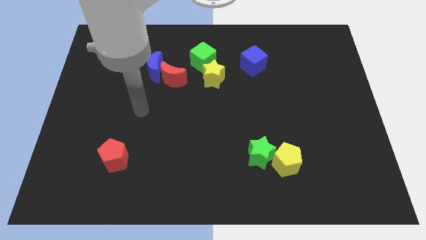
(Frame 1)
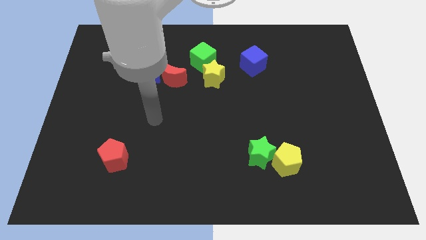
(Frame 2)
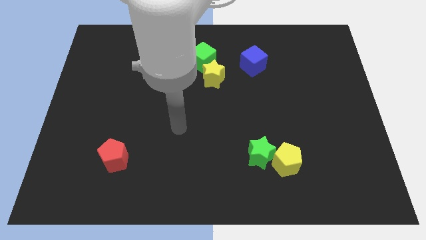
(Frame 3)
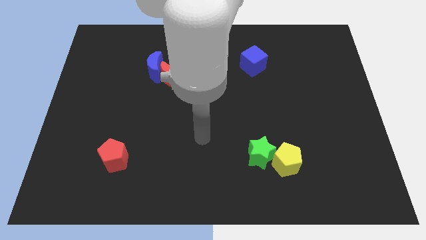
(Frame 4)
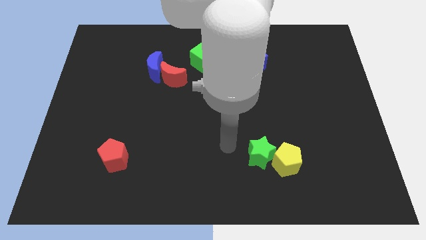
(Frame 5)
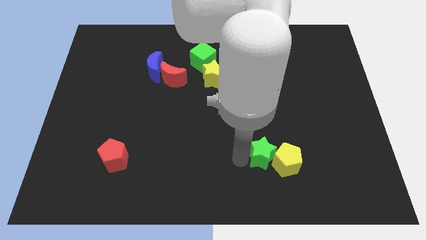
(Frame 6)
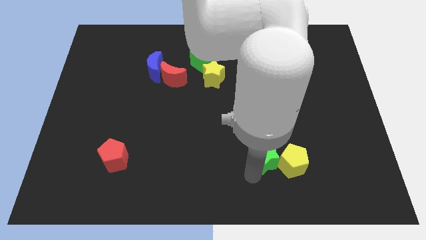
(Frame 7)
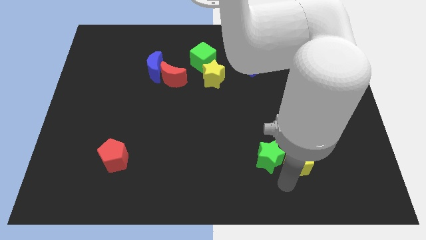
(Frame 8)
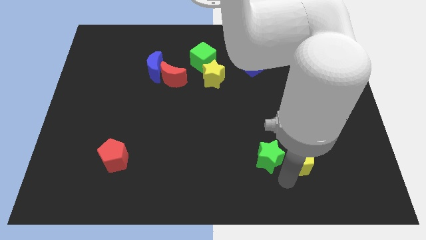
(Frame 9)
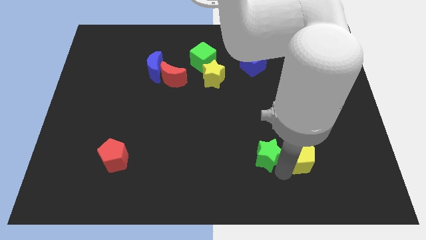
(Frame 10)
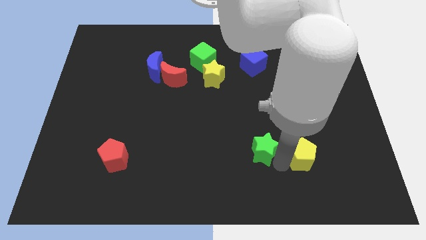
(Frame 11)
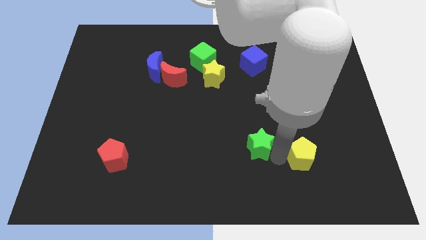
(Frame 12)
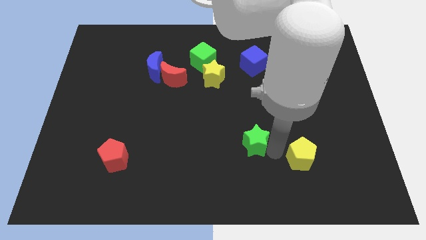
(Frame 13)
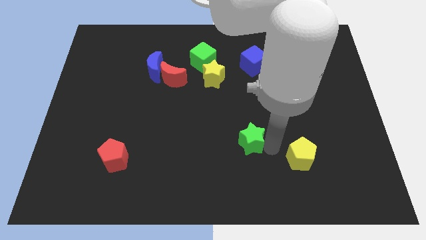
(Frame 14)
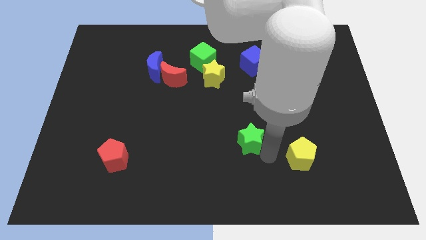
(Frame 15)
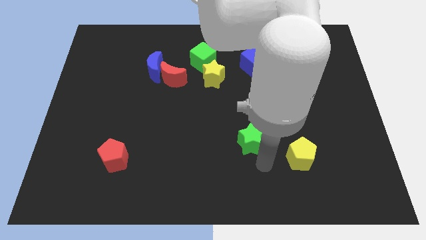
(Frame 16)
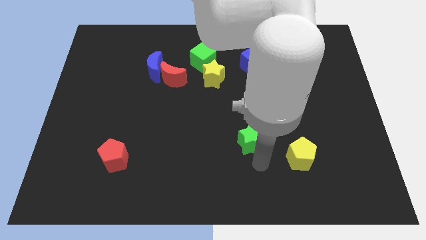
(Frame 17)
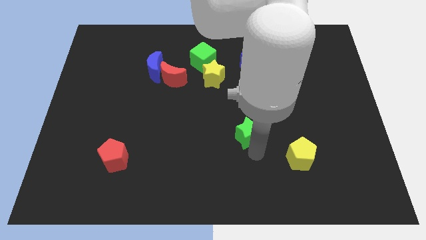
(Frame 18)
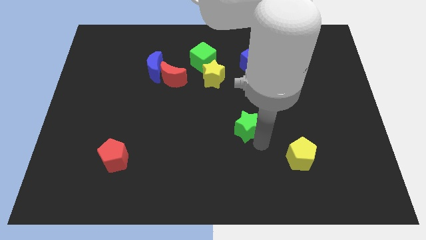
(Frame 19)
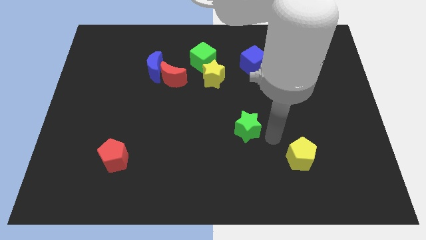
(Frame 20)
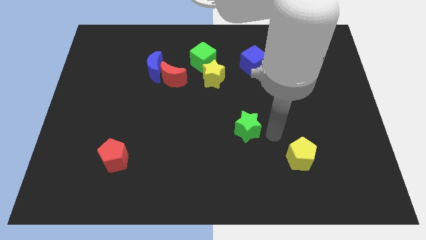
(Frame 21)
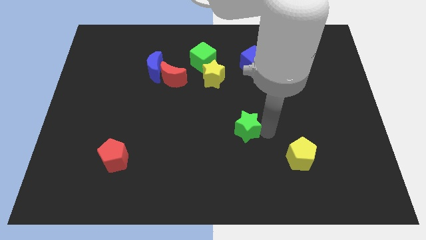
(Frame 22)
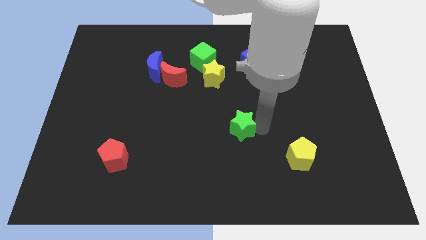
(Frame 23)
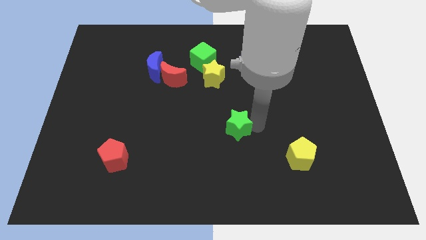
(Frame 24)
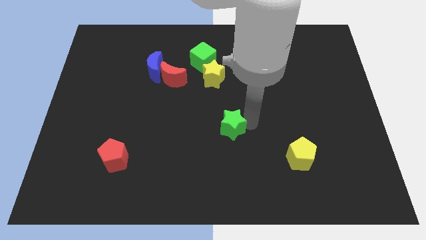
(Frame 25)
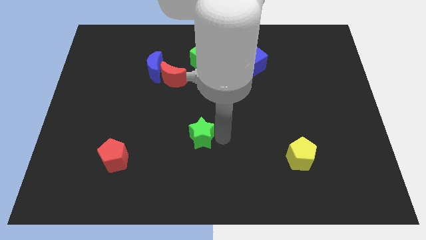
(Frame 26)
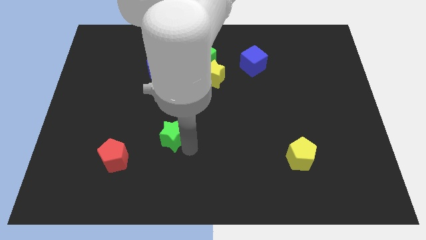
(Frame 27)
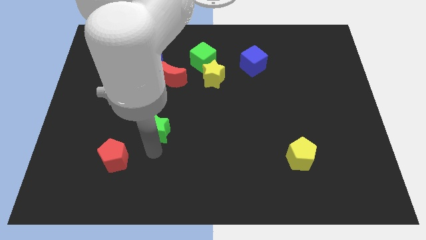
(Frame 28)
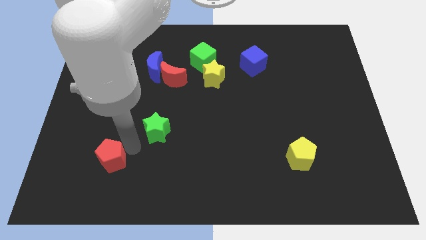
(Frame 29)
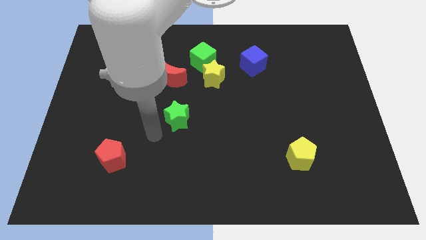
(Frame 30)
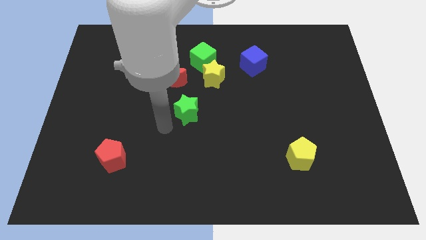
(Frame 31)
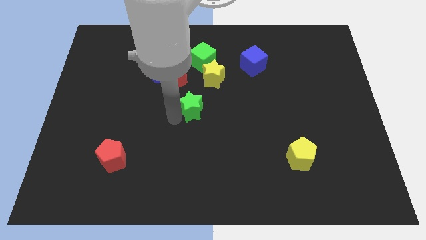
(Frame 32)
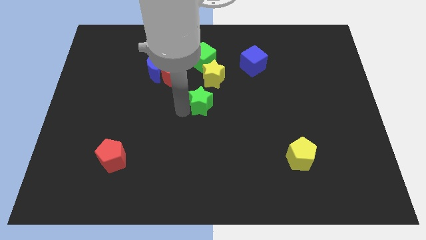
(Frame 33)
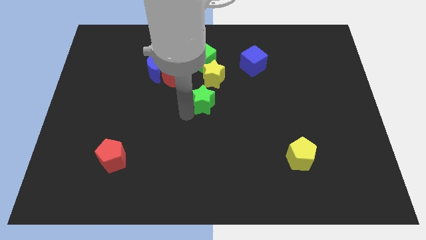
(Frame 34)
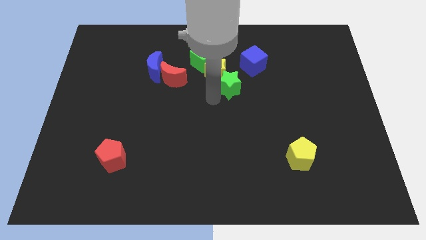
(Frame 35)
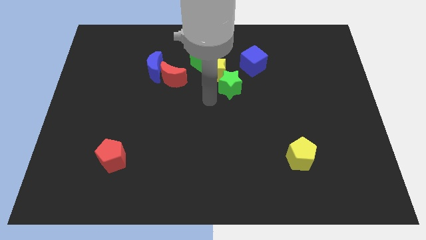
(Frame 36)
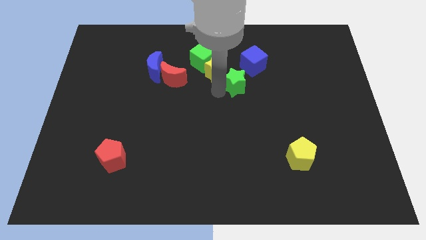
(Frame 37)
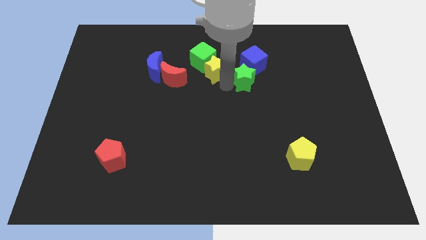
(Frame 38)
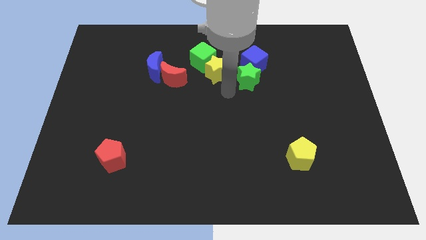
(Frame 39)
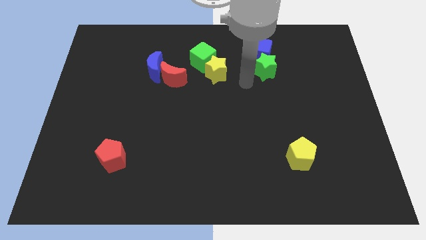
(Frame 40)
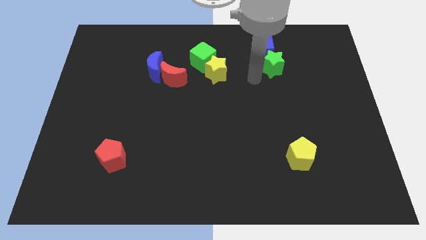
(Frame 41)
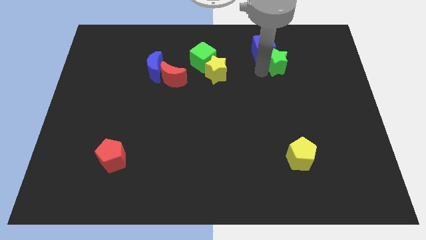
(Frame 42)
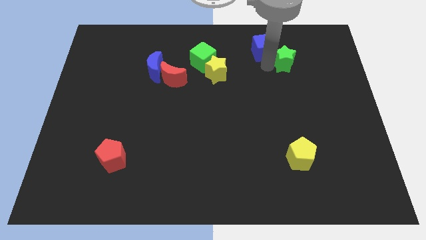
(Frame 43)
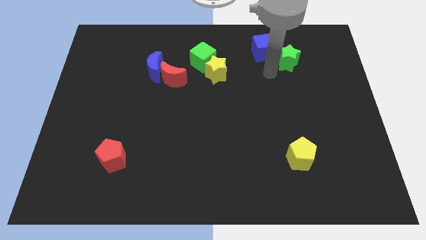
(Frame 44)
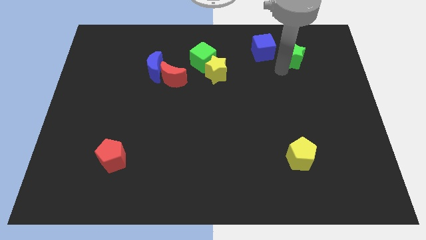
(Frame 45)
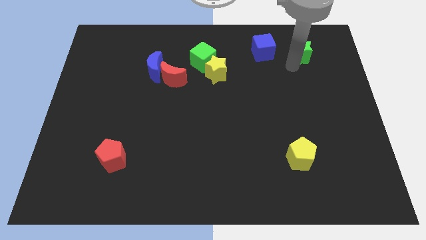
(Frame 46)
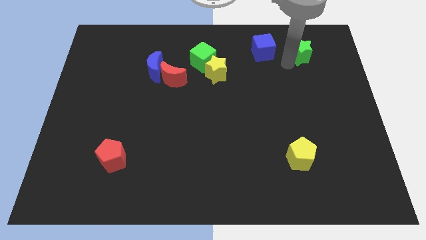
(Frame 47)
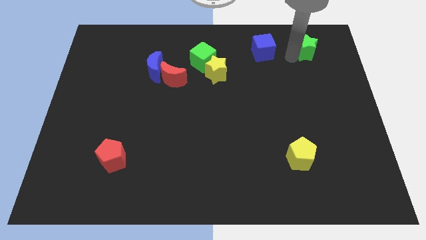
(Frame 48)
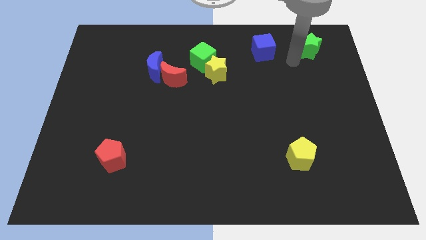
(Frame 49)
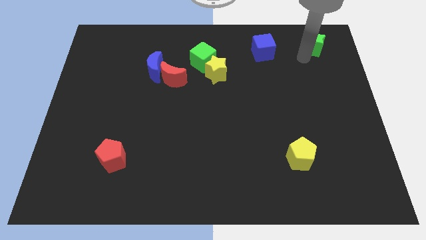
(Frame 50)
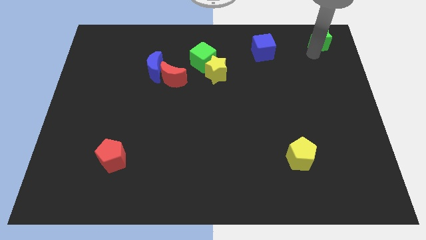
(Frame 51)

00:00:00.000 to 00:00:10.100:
push the green star to the top right corner

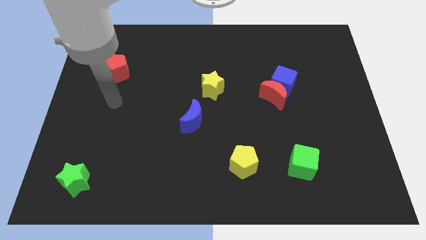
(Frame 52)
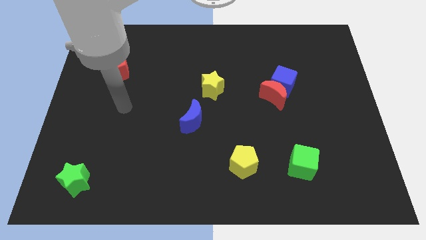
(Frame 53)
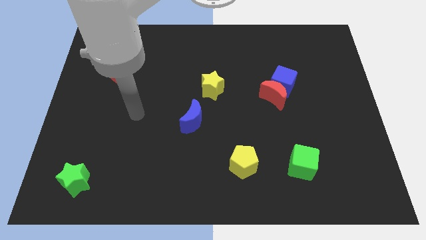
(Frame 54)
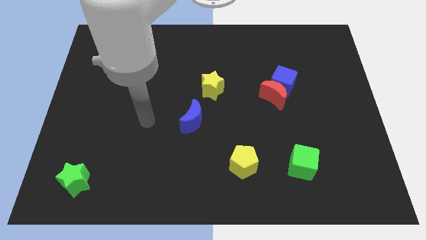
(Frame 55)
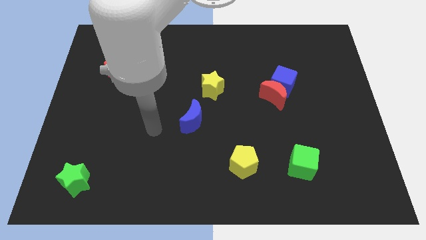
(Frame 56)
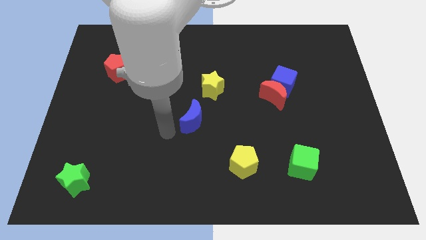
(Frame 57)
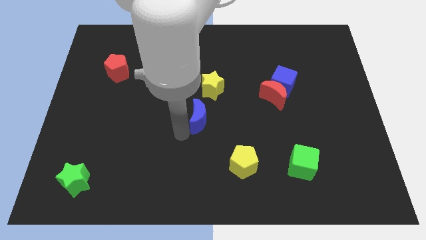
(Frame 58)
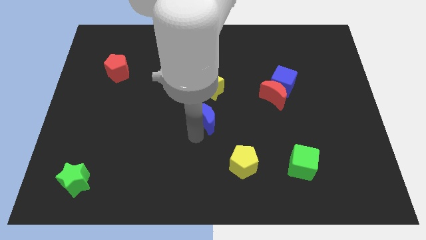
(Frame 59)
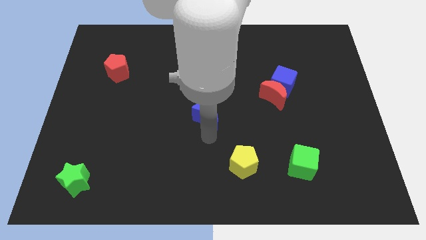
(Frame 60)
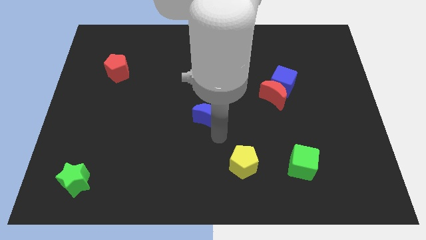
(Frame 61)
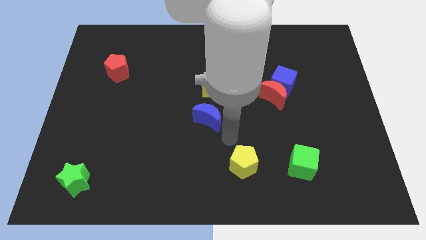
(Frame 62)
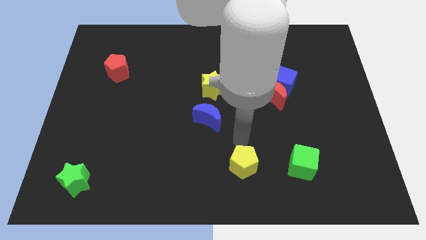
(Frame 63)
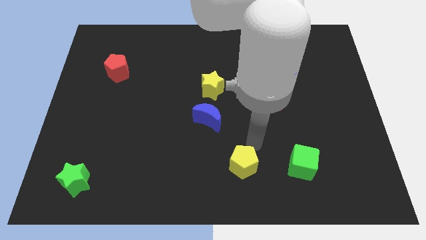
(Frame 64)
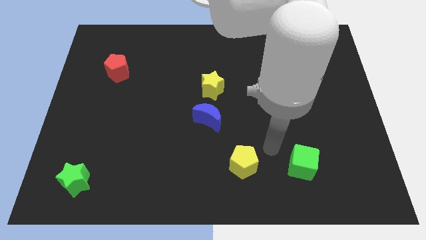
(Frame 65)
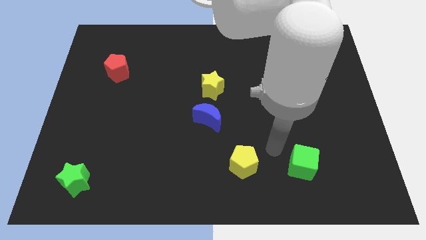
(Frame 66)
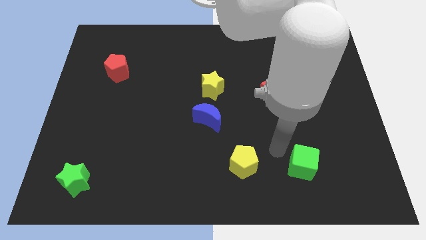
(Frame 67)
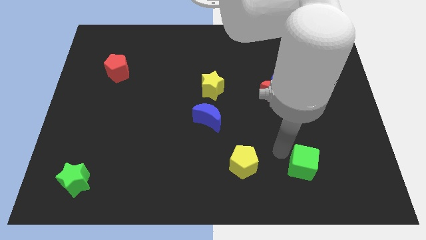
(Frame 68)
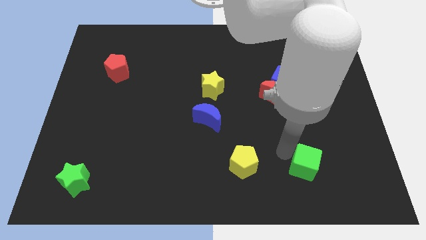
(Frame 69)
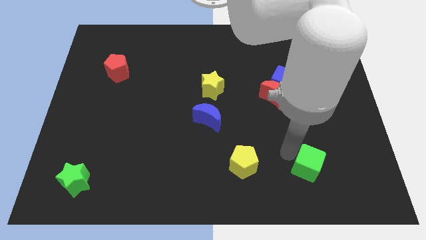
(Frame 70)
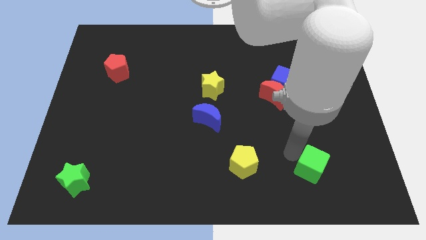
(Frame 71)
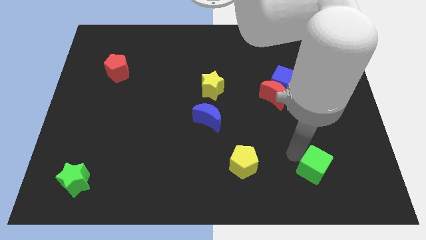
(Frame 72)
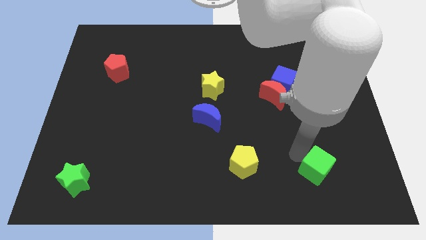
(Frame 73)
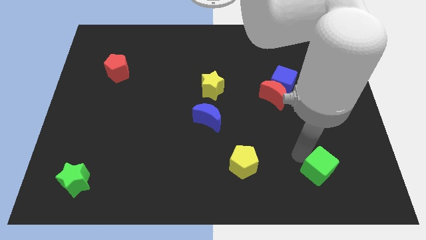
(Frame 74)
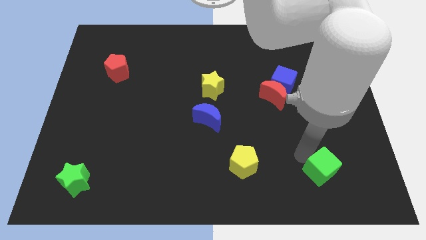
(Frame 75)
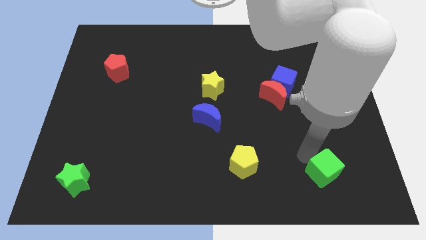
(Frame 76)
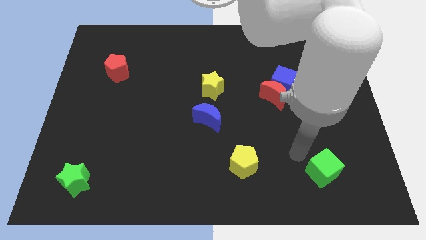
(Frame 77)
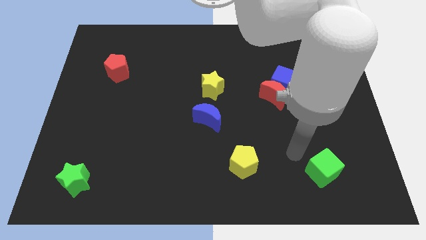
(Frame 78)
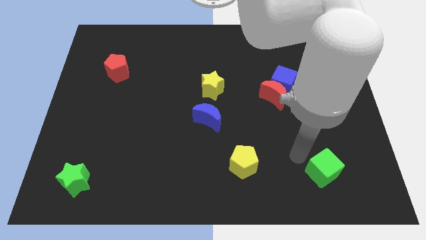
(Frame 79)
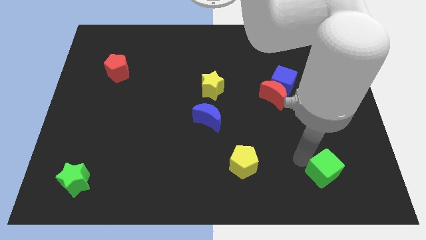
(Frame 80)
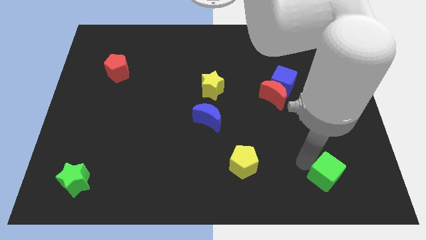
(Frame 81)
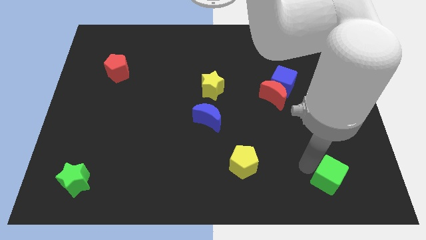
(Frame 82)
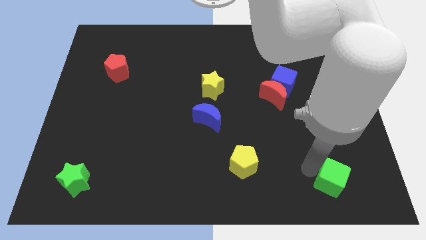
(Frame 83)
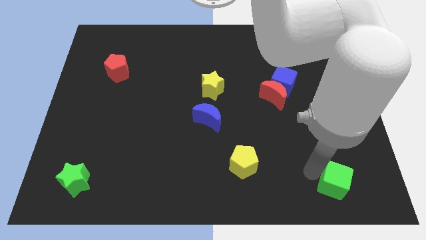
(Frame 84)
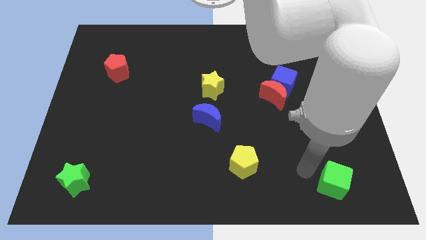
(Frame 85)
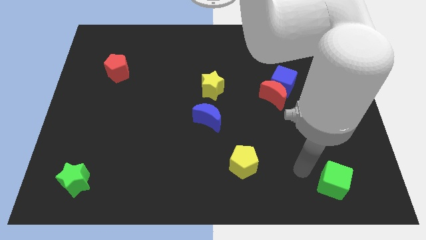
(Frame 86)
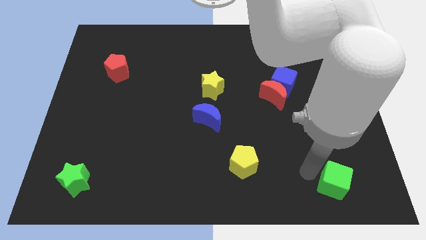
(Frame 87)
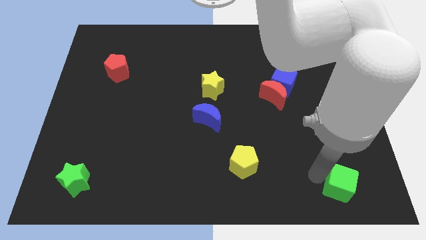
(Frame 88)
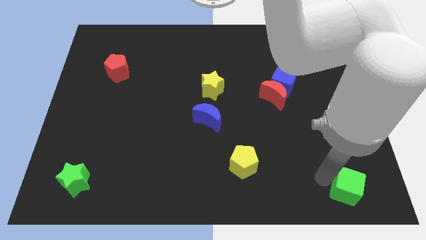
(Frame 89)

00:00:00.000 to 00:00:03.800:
slide the green cube to the bottom right of the board
